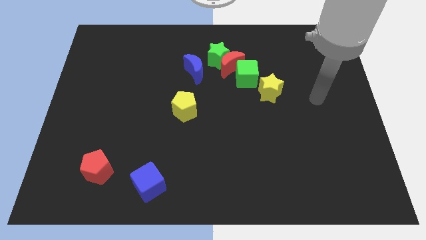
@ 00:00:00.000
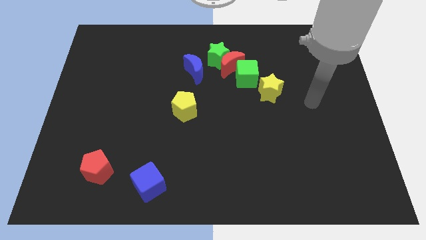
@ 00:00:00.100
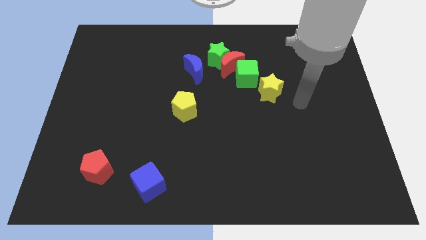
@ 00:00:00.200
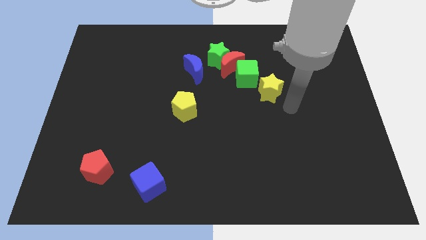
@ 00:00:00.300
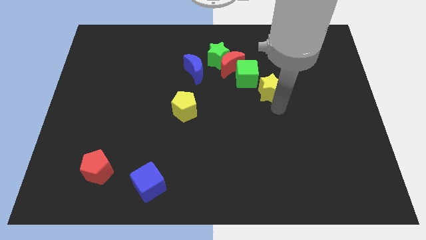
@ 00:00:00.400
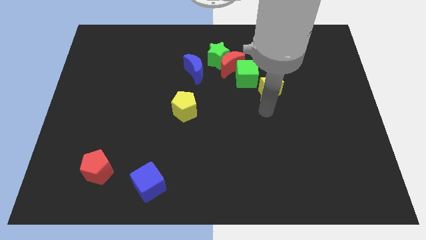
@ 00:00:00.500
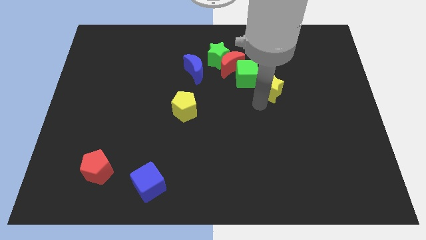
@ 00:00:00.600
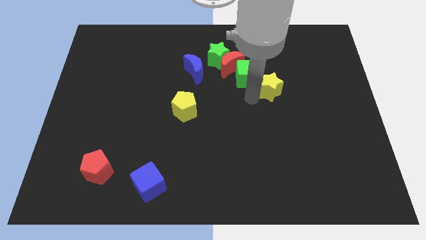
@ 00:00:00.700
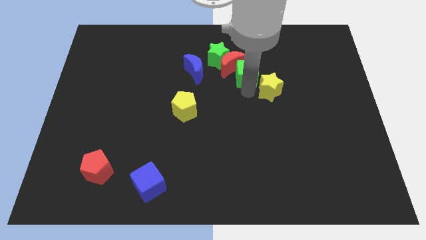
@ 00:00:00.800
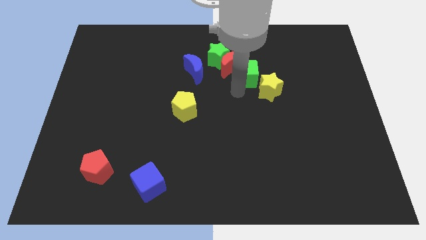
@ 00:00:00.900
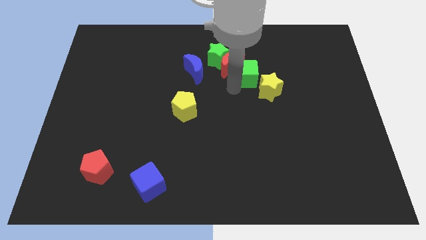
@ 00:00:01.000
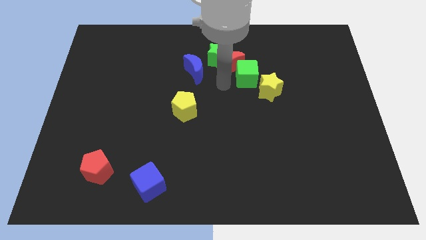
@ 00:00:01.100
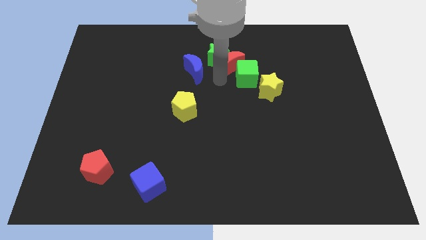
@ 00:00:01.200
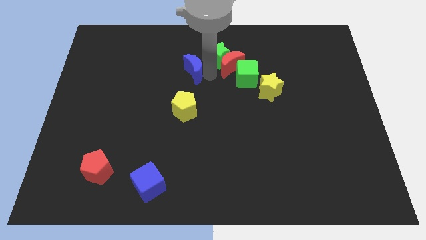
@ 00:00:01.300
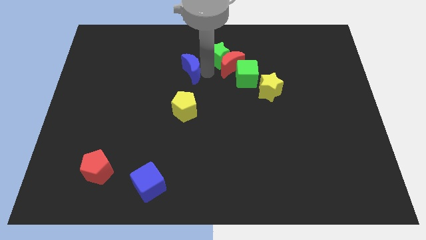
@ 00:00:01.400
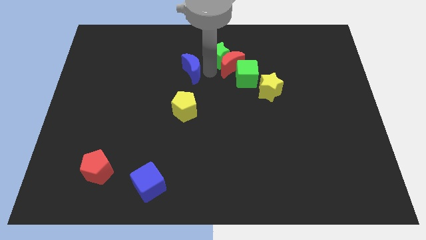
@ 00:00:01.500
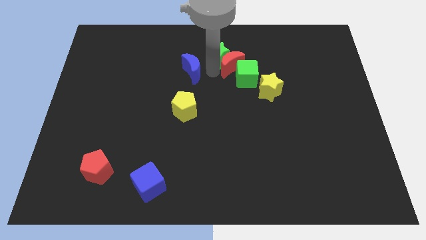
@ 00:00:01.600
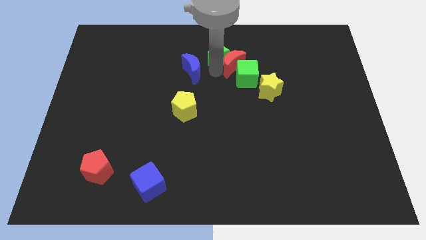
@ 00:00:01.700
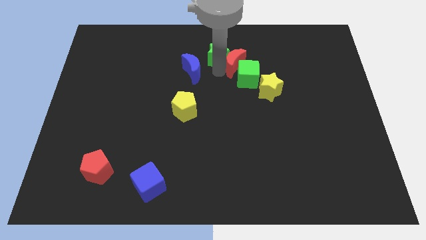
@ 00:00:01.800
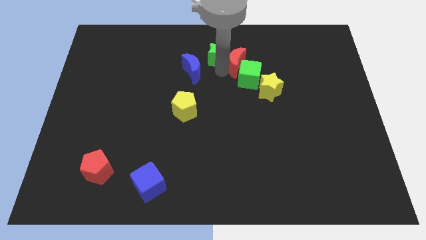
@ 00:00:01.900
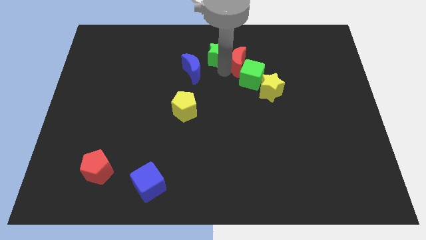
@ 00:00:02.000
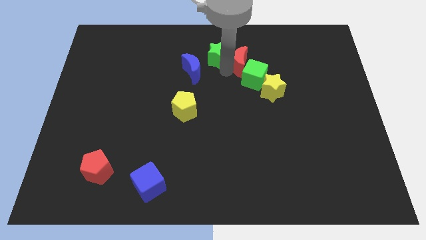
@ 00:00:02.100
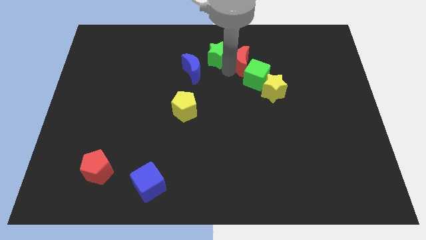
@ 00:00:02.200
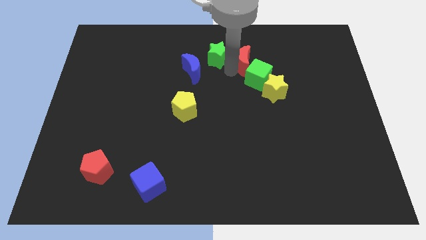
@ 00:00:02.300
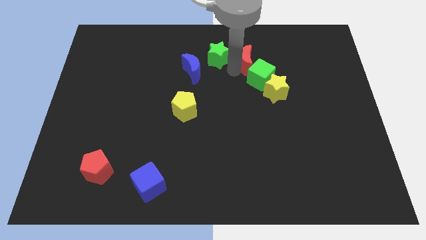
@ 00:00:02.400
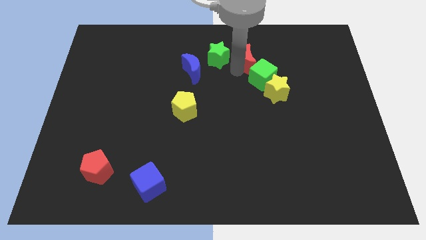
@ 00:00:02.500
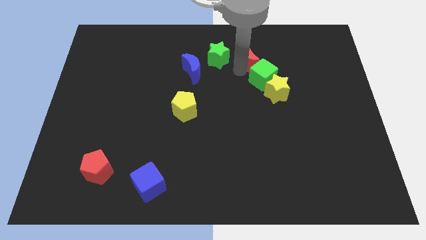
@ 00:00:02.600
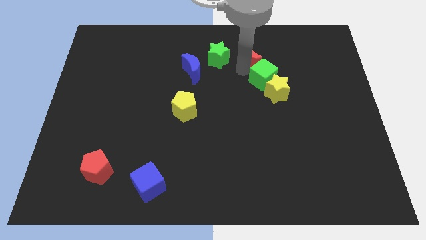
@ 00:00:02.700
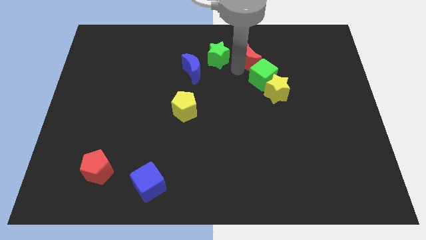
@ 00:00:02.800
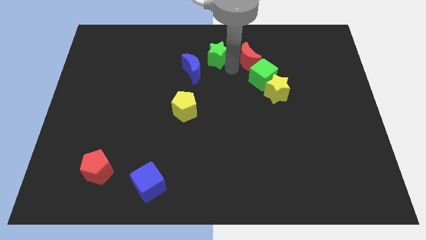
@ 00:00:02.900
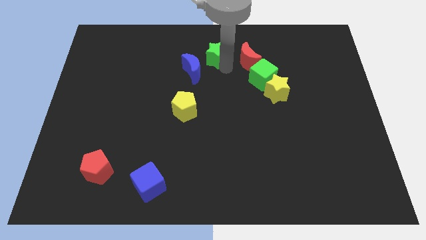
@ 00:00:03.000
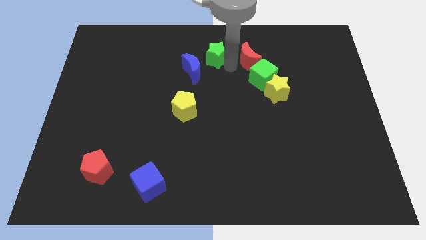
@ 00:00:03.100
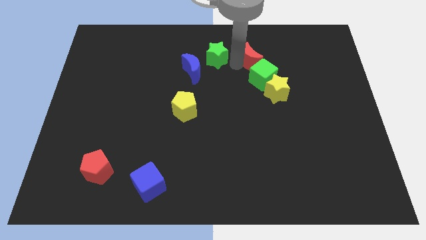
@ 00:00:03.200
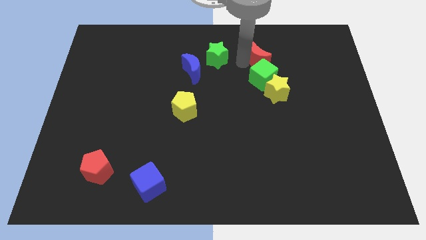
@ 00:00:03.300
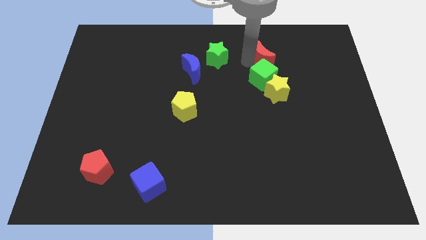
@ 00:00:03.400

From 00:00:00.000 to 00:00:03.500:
move the red moon away from the group of blocks

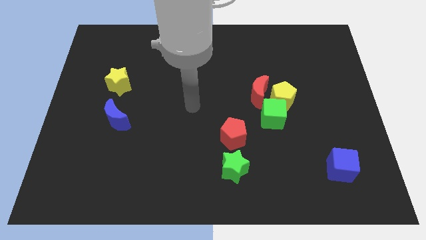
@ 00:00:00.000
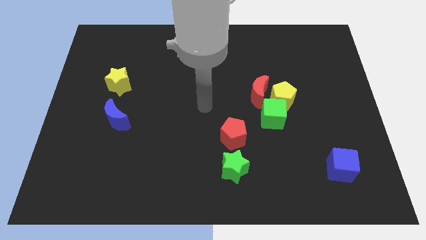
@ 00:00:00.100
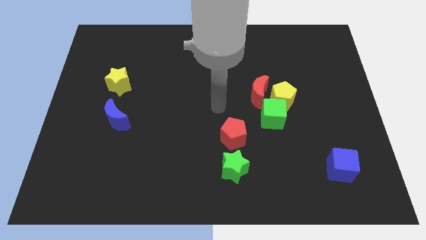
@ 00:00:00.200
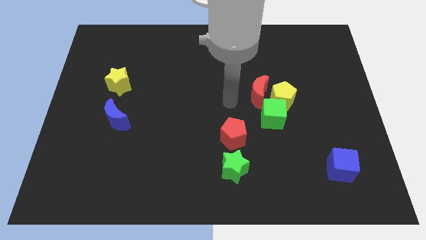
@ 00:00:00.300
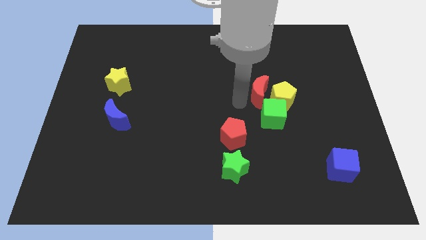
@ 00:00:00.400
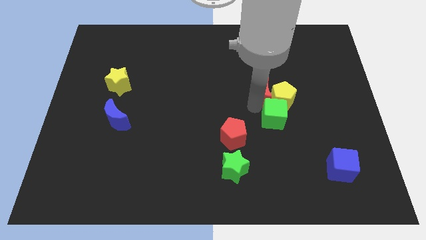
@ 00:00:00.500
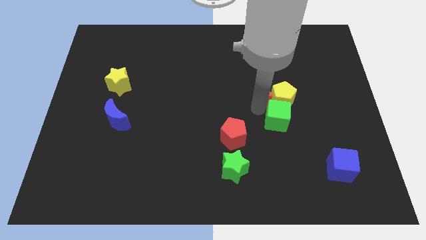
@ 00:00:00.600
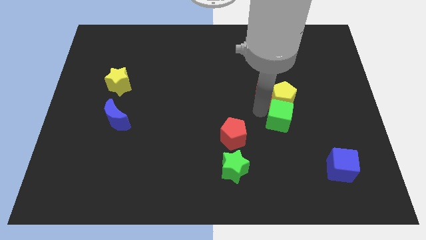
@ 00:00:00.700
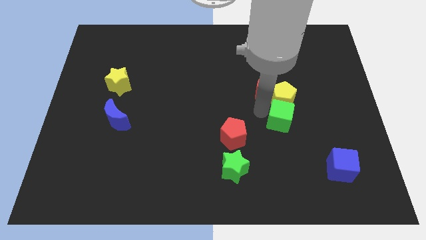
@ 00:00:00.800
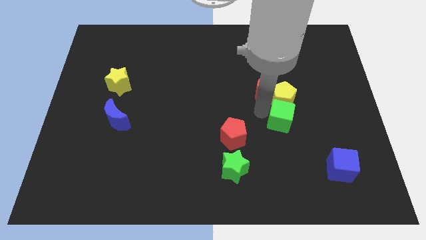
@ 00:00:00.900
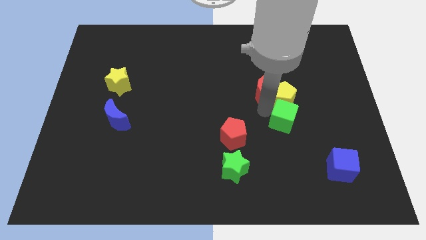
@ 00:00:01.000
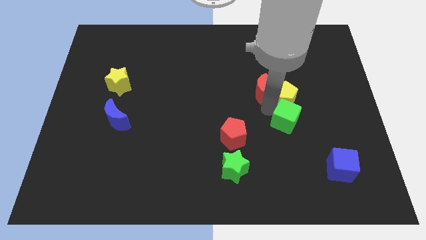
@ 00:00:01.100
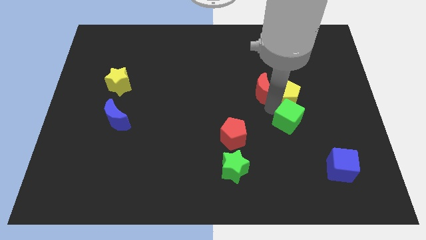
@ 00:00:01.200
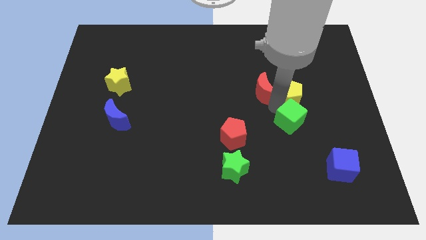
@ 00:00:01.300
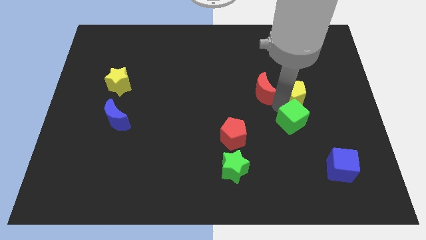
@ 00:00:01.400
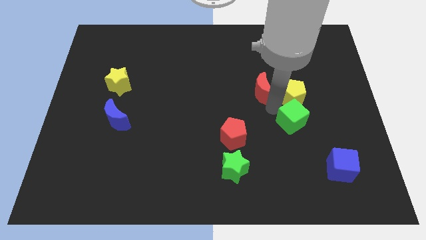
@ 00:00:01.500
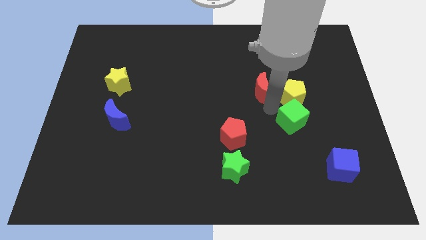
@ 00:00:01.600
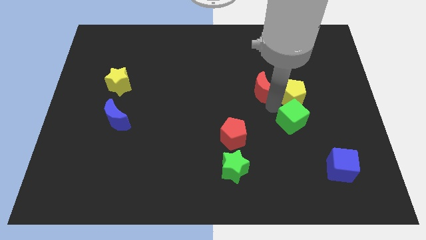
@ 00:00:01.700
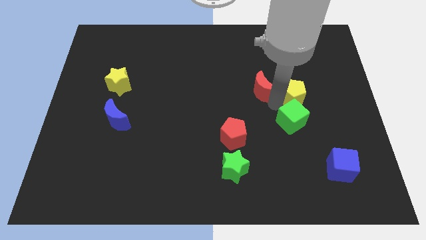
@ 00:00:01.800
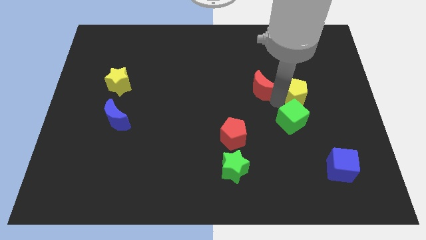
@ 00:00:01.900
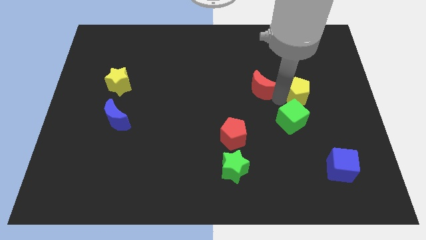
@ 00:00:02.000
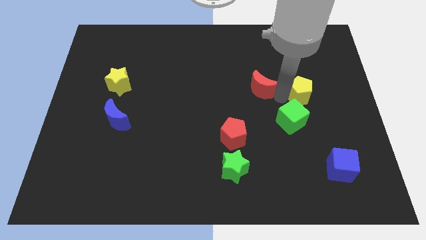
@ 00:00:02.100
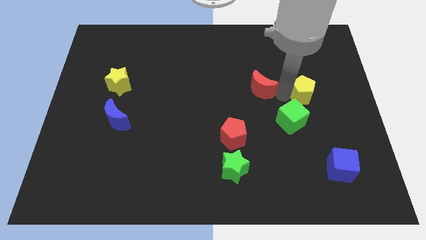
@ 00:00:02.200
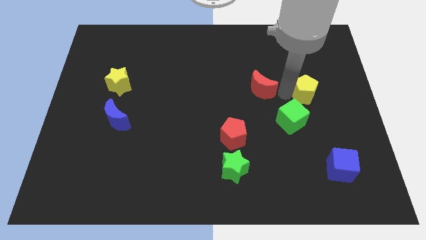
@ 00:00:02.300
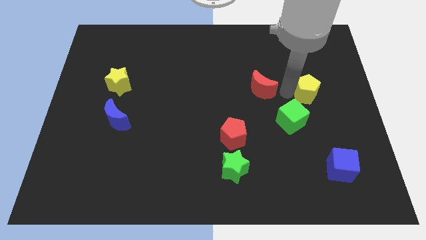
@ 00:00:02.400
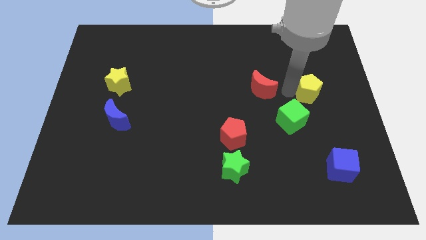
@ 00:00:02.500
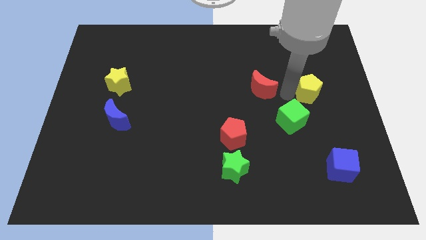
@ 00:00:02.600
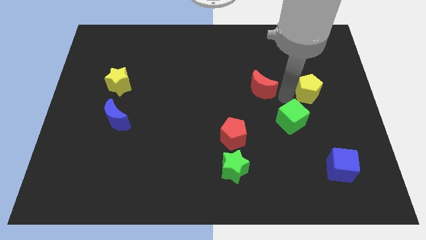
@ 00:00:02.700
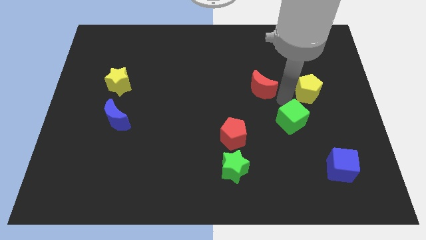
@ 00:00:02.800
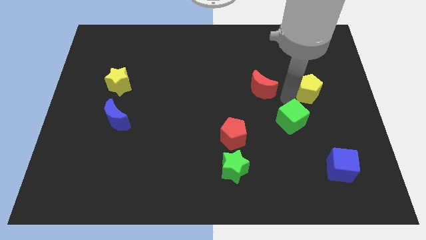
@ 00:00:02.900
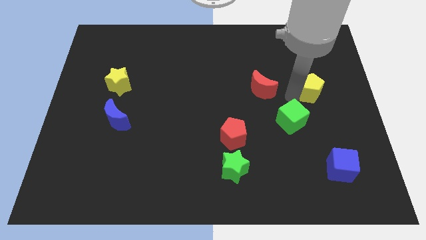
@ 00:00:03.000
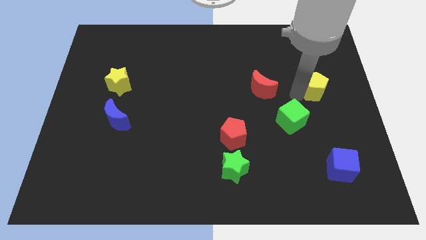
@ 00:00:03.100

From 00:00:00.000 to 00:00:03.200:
move the yellow pentagon away from the red moon and green cube

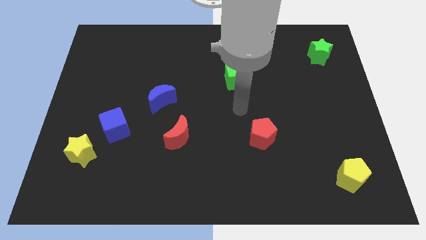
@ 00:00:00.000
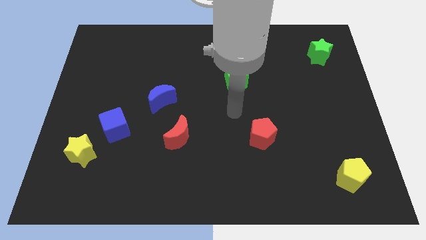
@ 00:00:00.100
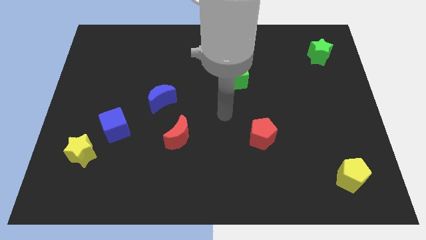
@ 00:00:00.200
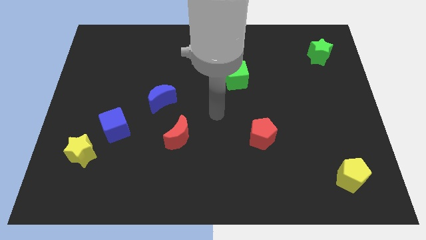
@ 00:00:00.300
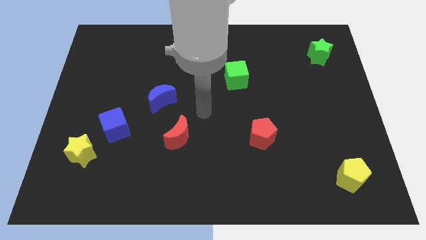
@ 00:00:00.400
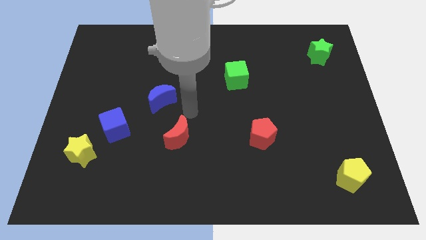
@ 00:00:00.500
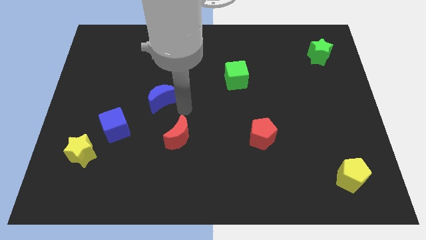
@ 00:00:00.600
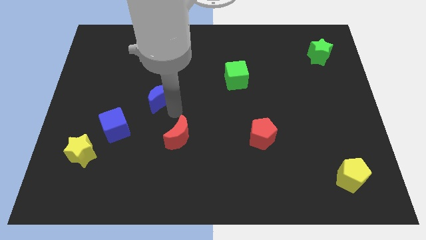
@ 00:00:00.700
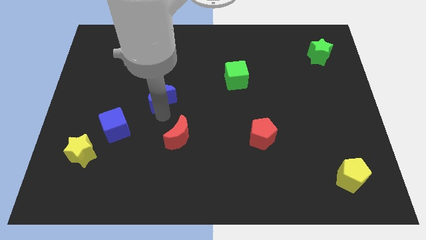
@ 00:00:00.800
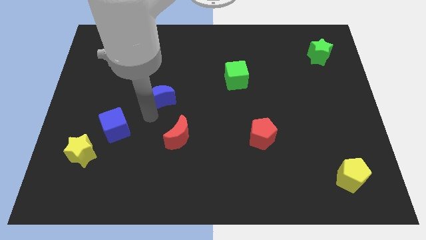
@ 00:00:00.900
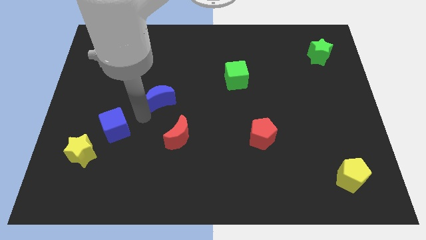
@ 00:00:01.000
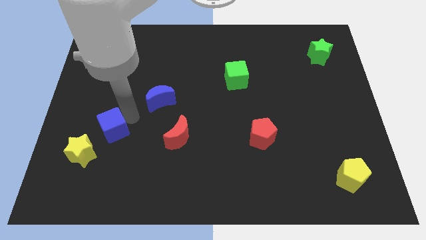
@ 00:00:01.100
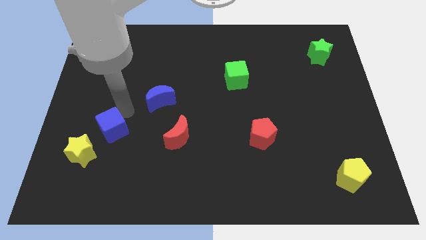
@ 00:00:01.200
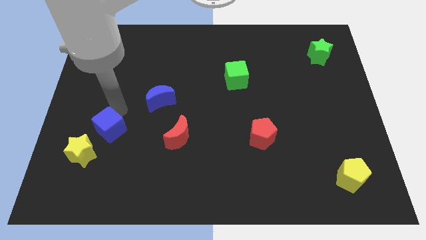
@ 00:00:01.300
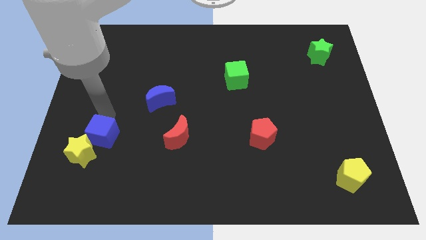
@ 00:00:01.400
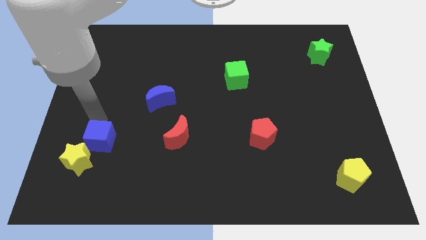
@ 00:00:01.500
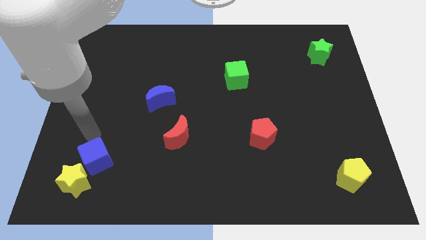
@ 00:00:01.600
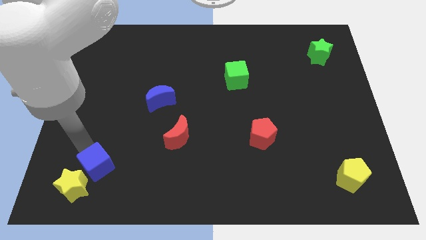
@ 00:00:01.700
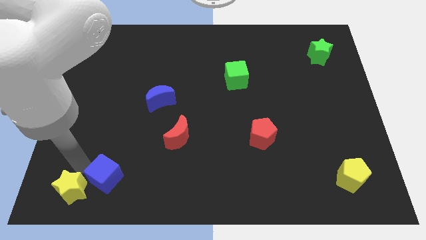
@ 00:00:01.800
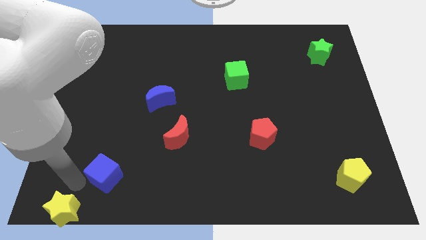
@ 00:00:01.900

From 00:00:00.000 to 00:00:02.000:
pull the blue cube apart from the yellow star

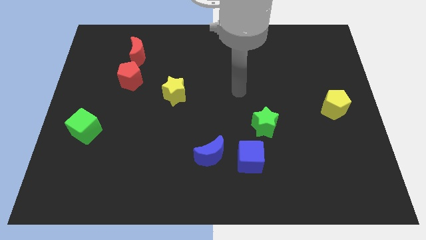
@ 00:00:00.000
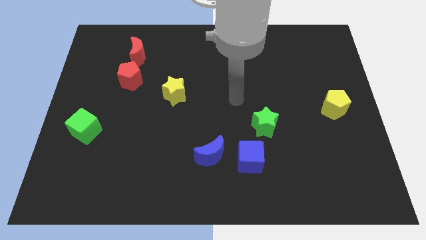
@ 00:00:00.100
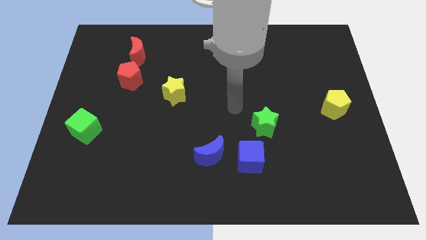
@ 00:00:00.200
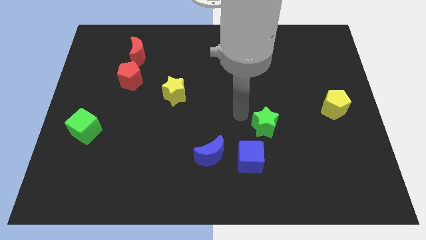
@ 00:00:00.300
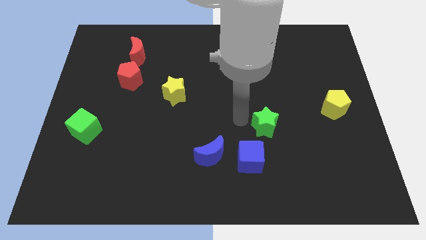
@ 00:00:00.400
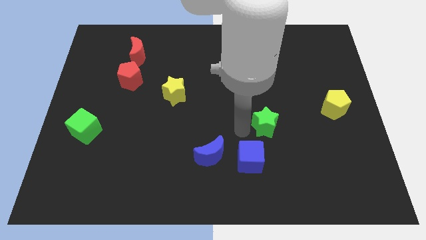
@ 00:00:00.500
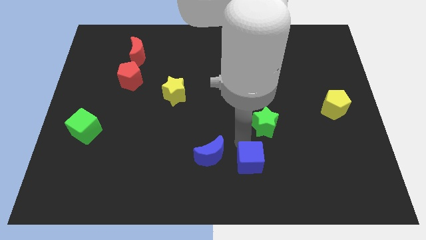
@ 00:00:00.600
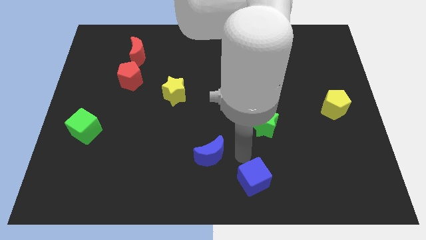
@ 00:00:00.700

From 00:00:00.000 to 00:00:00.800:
pull the blue moon apart from the blue cube
